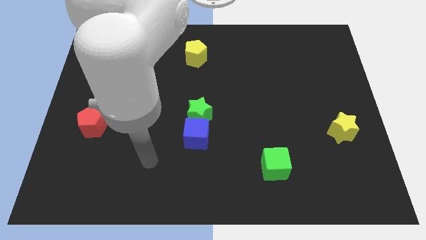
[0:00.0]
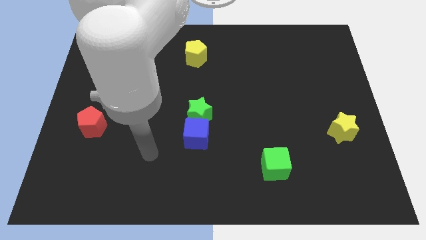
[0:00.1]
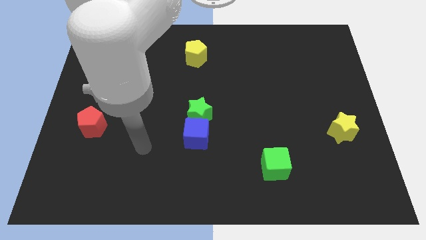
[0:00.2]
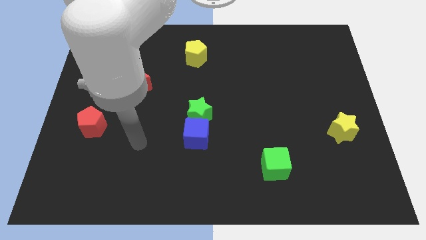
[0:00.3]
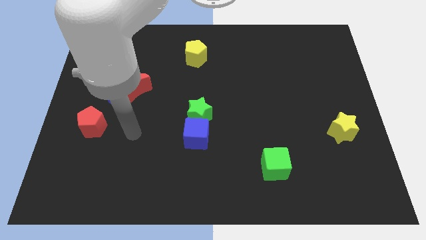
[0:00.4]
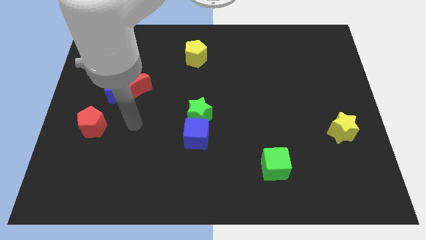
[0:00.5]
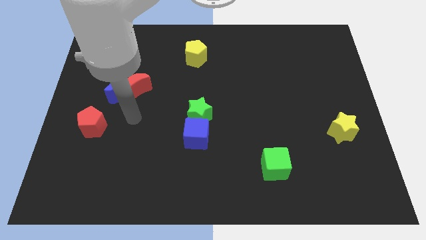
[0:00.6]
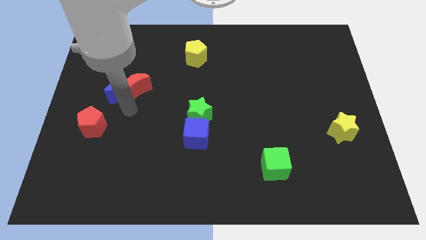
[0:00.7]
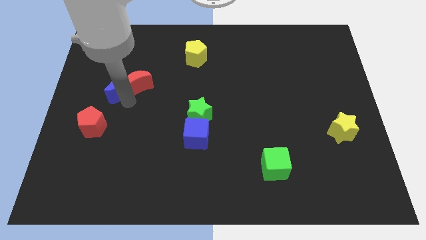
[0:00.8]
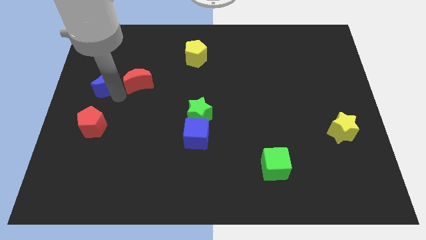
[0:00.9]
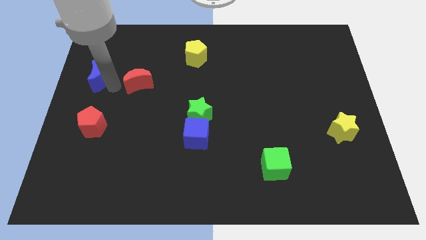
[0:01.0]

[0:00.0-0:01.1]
move the red moon away from the blue moon

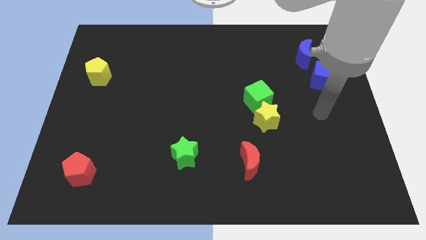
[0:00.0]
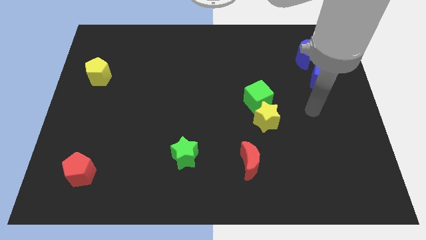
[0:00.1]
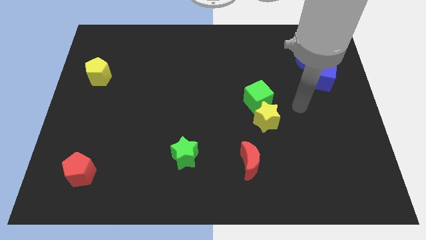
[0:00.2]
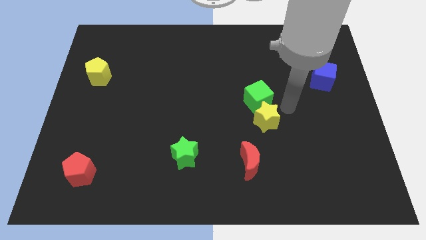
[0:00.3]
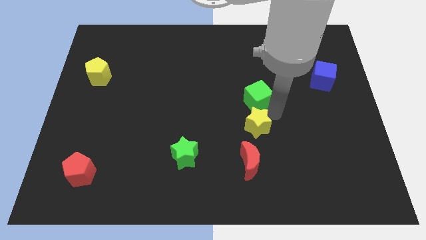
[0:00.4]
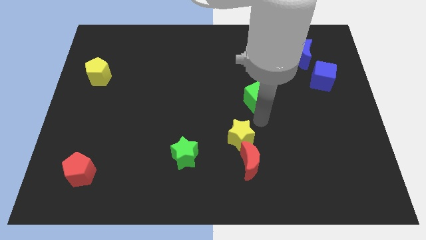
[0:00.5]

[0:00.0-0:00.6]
separate the green cube from the yellow star

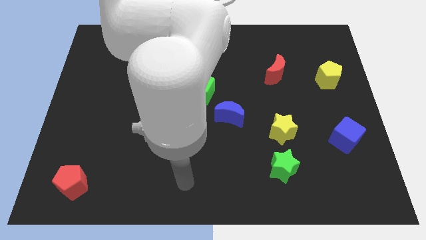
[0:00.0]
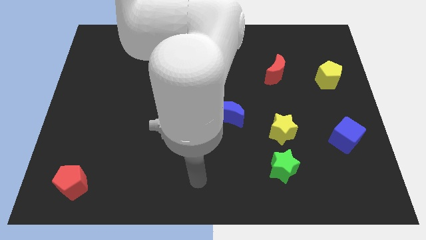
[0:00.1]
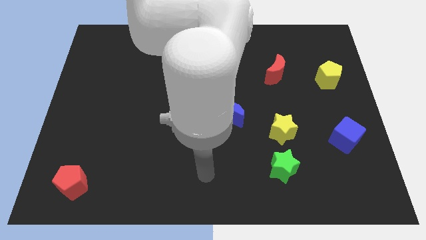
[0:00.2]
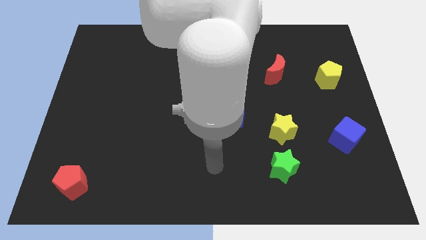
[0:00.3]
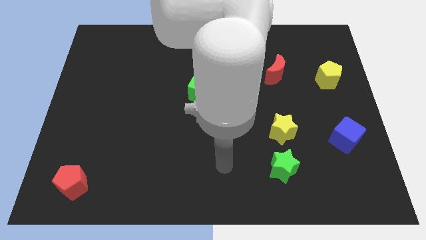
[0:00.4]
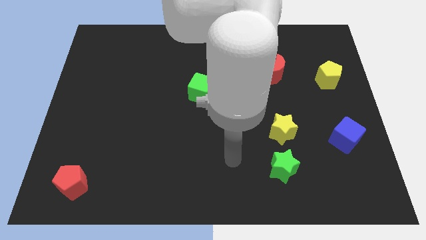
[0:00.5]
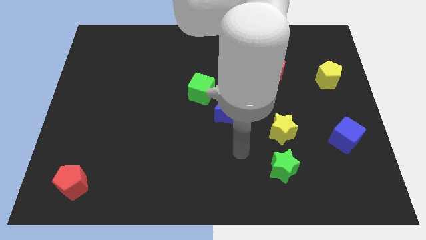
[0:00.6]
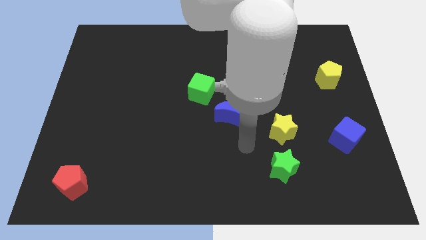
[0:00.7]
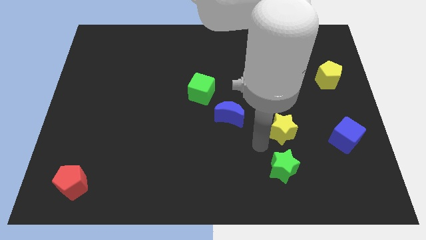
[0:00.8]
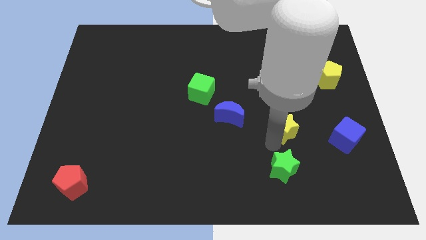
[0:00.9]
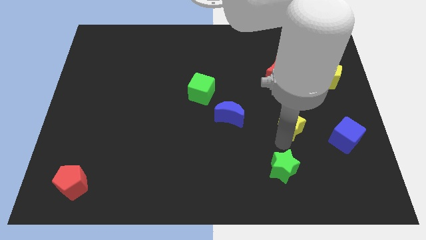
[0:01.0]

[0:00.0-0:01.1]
pull the green star apart from the yellow star

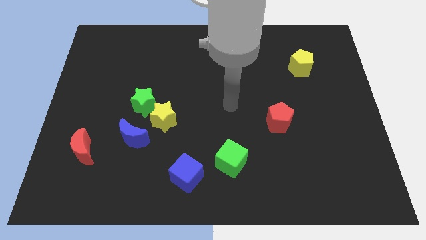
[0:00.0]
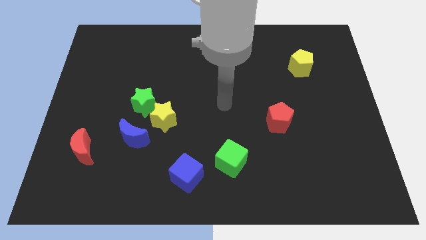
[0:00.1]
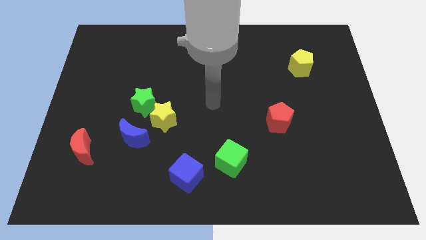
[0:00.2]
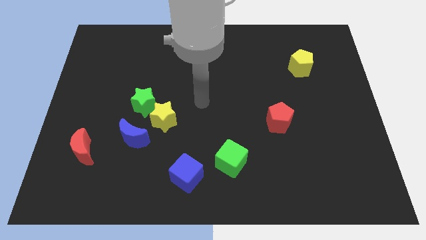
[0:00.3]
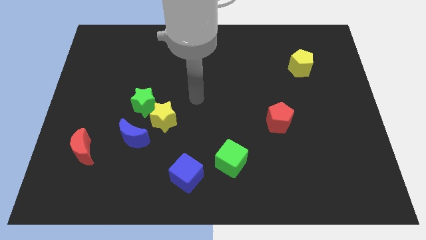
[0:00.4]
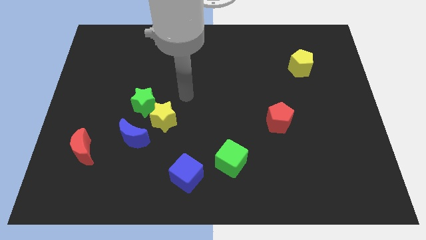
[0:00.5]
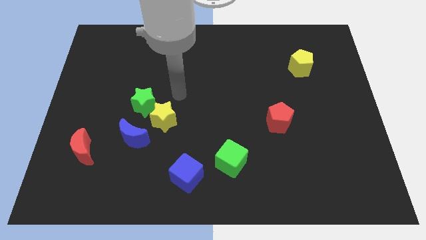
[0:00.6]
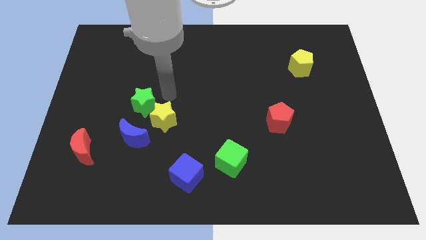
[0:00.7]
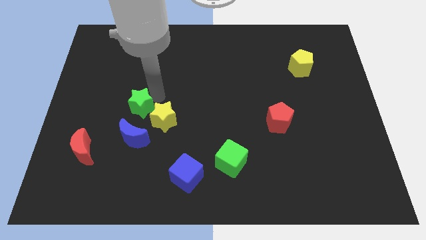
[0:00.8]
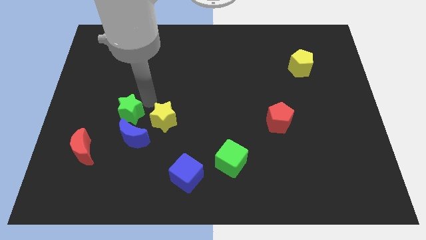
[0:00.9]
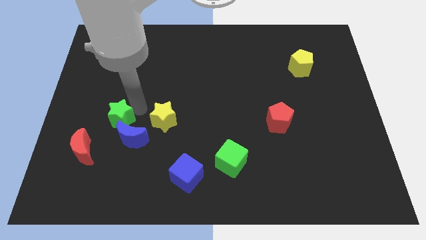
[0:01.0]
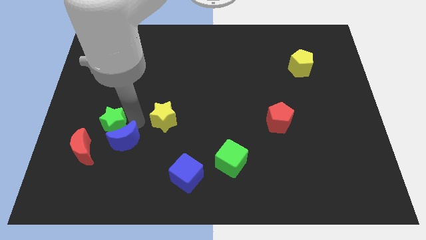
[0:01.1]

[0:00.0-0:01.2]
move the yellow star away from the green star and blue moon

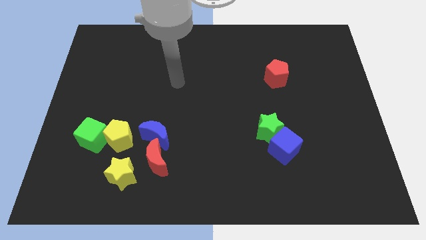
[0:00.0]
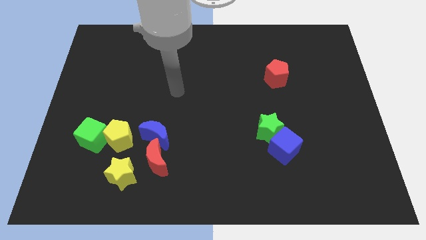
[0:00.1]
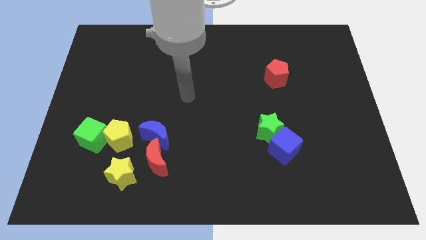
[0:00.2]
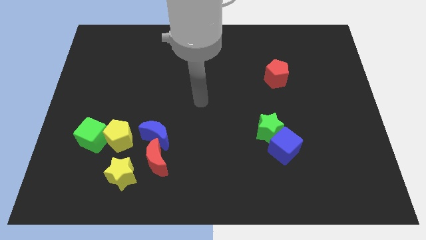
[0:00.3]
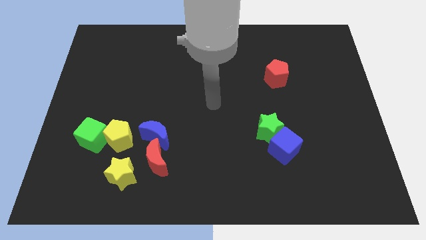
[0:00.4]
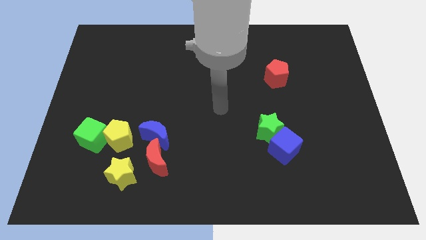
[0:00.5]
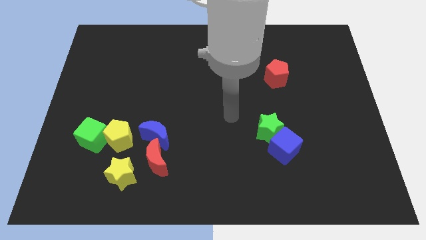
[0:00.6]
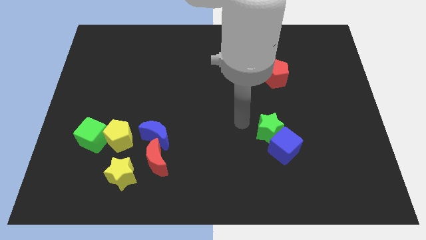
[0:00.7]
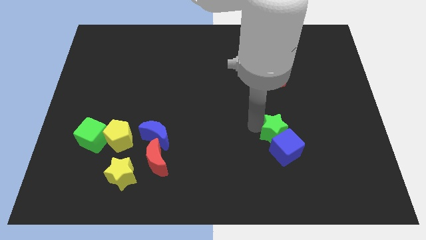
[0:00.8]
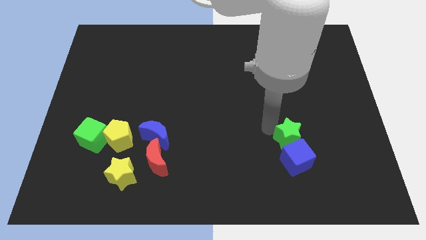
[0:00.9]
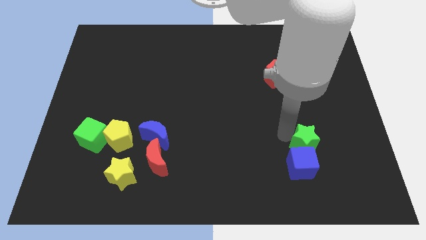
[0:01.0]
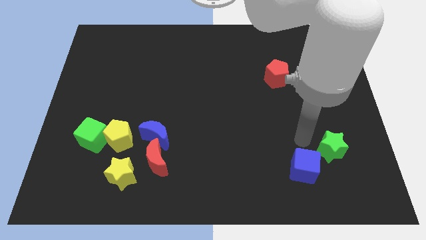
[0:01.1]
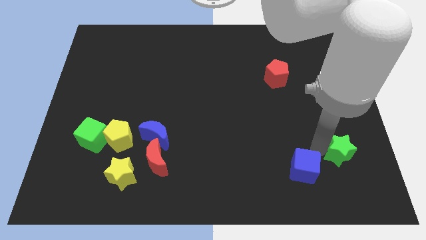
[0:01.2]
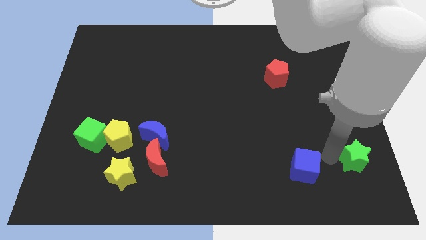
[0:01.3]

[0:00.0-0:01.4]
pull the blue cube apart from the green star

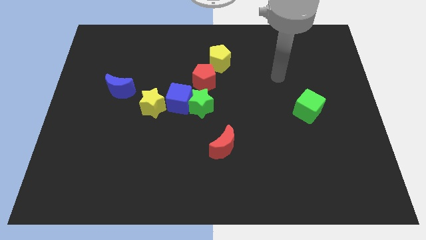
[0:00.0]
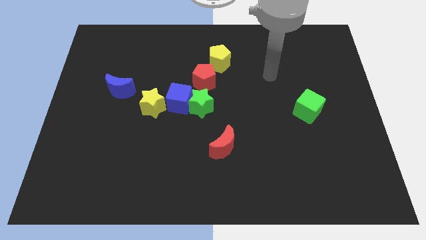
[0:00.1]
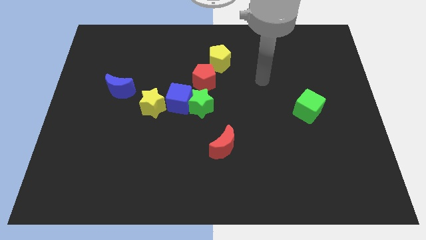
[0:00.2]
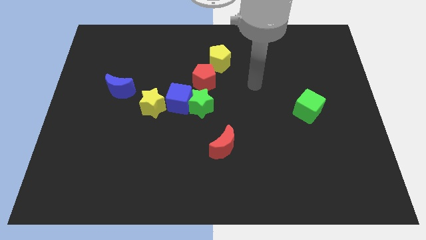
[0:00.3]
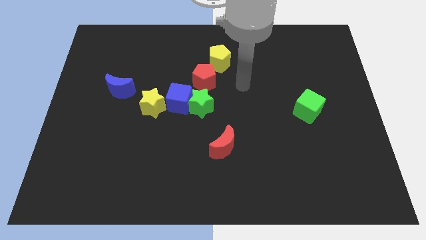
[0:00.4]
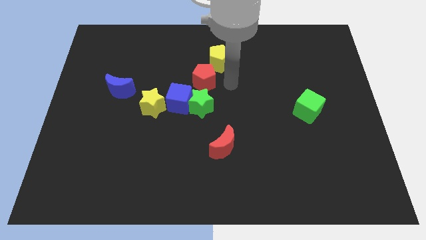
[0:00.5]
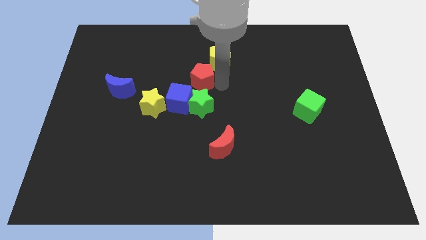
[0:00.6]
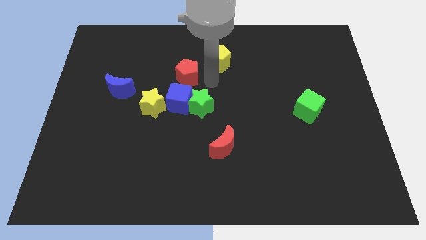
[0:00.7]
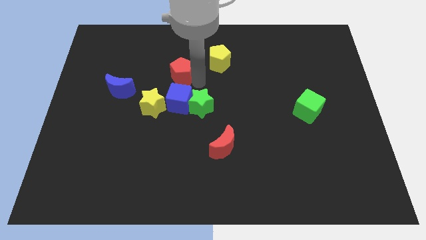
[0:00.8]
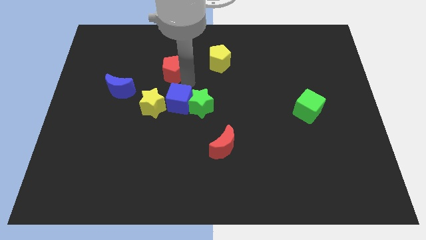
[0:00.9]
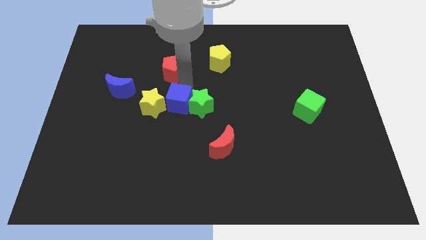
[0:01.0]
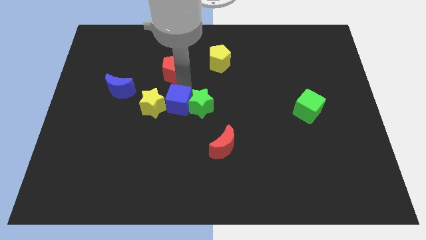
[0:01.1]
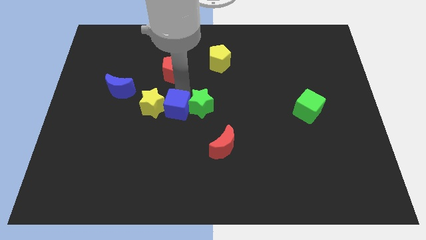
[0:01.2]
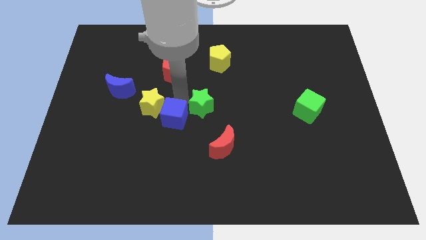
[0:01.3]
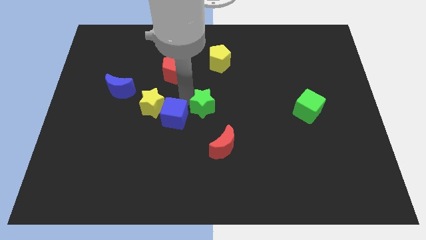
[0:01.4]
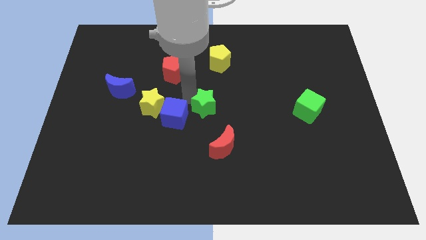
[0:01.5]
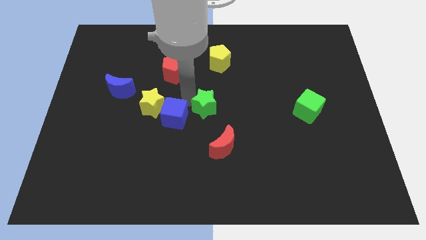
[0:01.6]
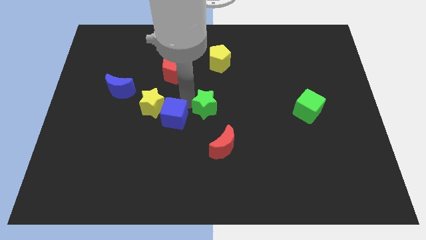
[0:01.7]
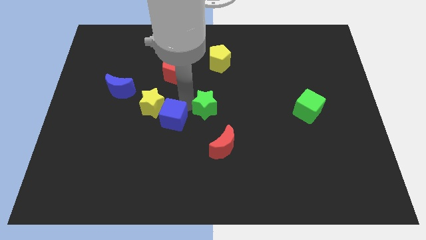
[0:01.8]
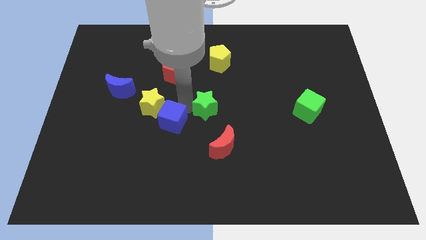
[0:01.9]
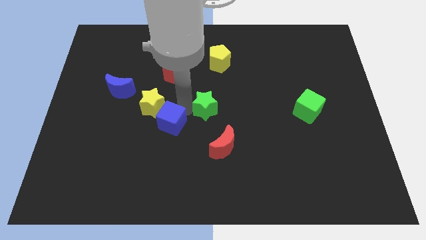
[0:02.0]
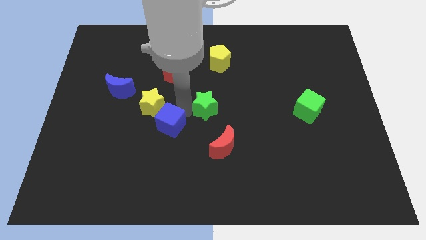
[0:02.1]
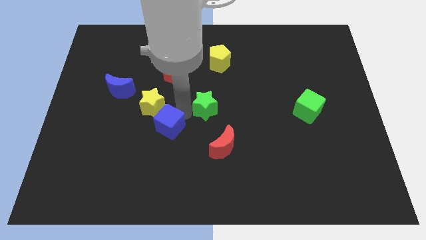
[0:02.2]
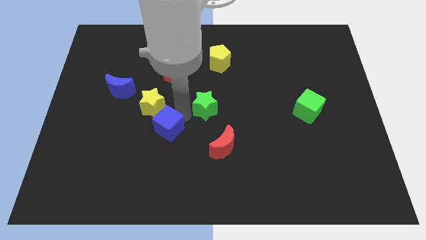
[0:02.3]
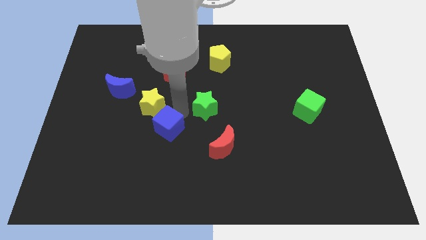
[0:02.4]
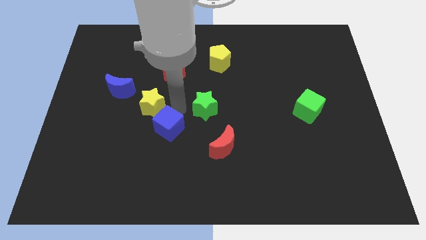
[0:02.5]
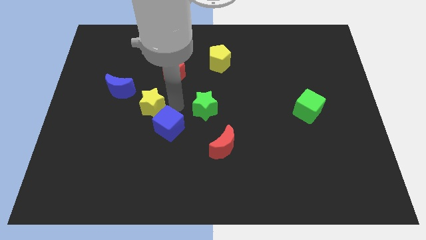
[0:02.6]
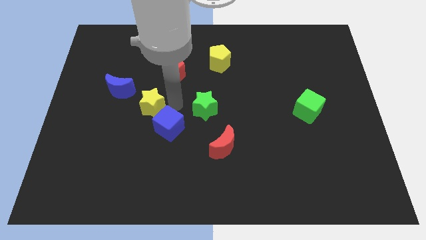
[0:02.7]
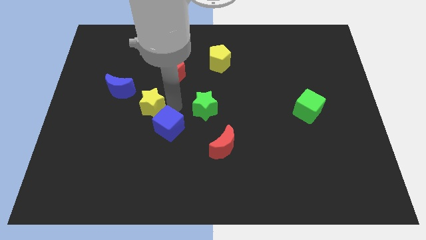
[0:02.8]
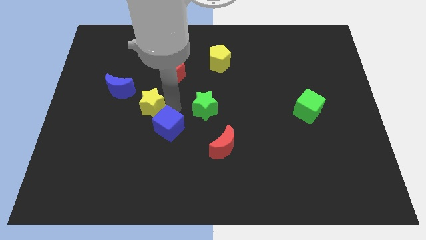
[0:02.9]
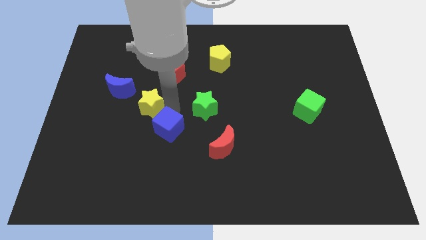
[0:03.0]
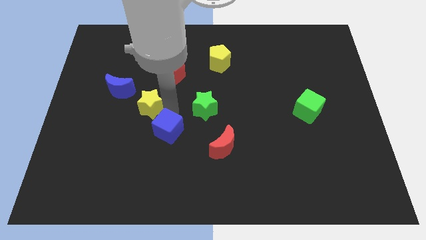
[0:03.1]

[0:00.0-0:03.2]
separate the blue cube from the green star, yellow star, and red pentagon

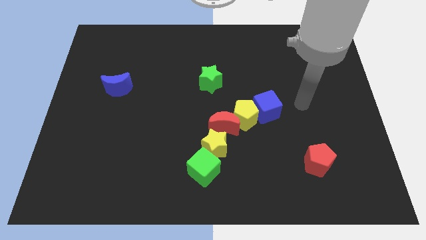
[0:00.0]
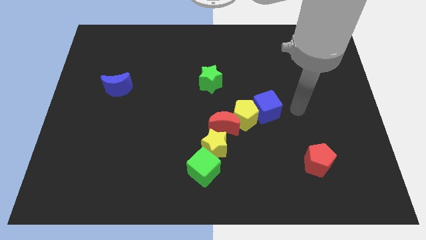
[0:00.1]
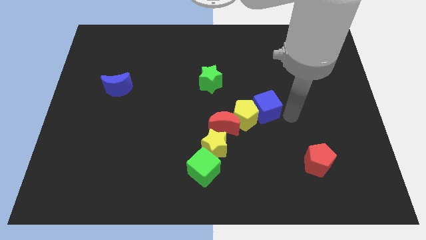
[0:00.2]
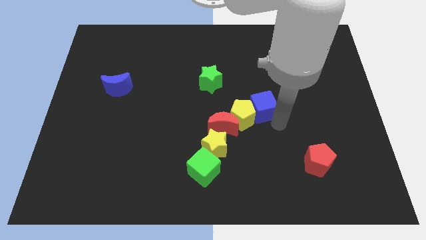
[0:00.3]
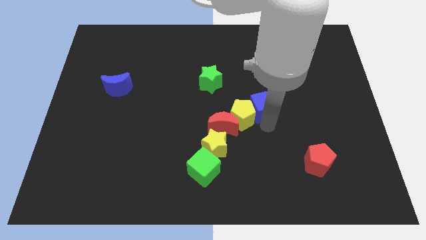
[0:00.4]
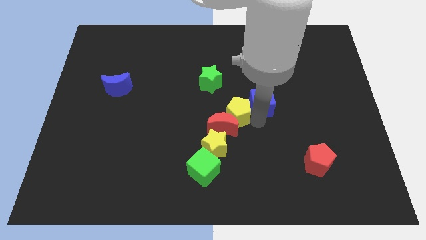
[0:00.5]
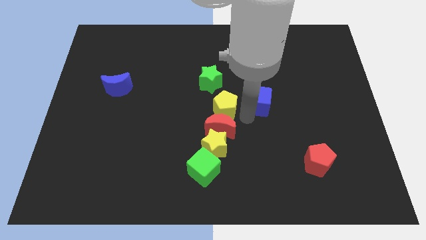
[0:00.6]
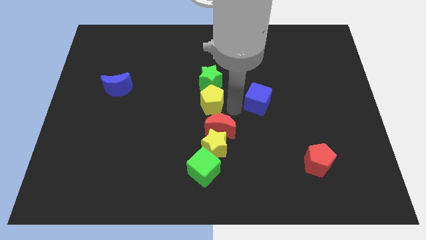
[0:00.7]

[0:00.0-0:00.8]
pull the blue cube apart from the yellow pentagon
